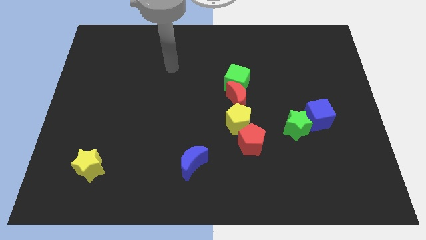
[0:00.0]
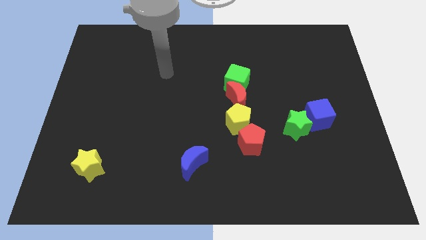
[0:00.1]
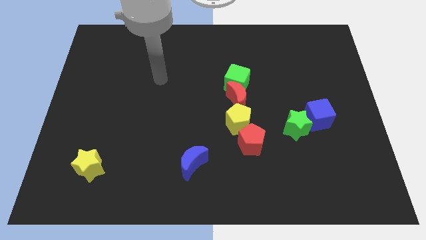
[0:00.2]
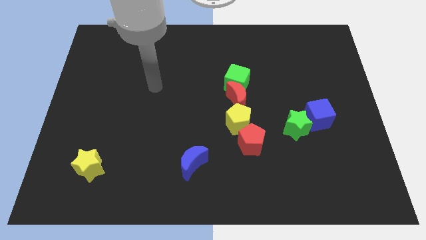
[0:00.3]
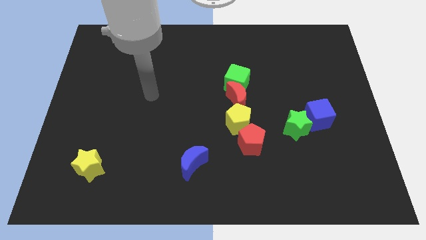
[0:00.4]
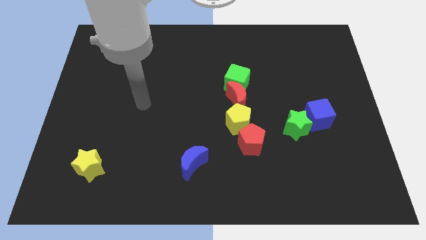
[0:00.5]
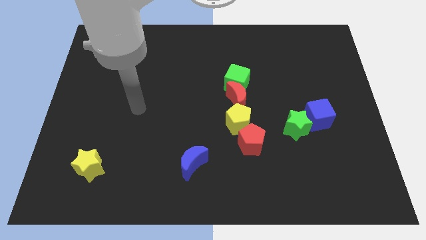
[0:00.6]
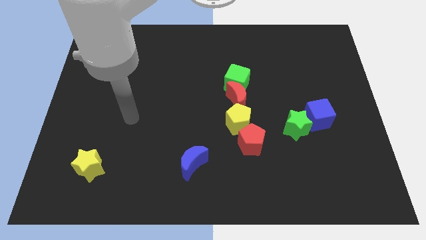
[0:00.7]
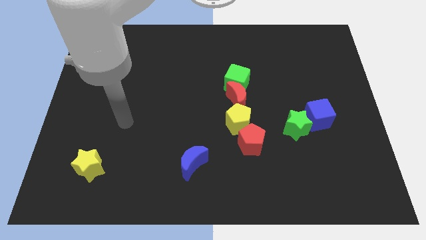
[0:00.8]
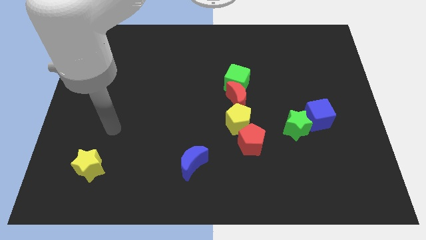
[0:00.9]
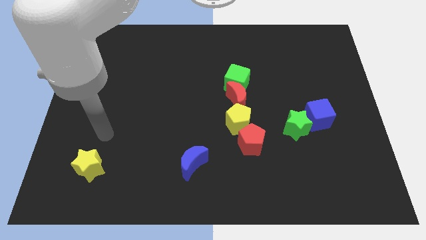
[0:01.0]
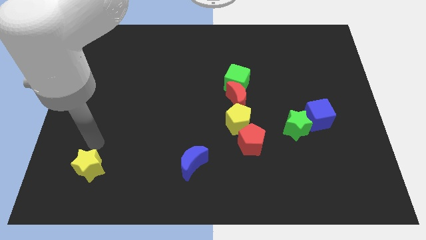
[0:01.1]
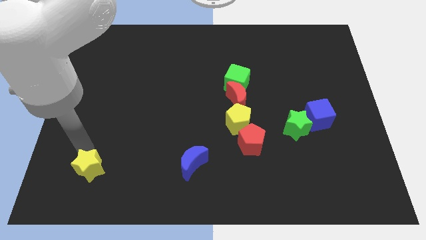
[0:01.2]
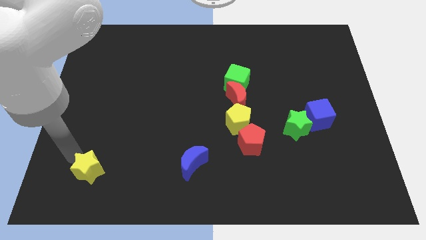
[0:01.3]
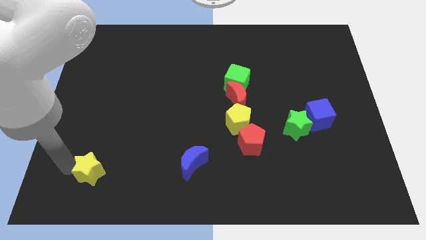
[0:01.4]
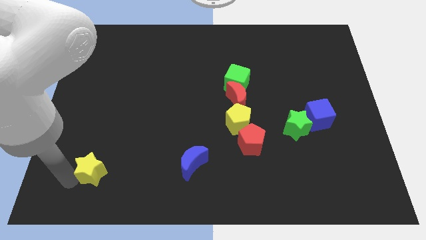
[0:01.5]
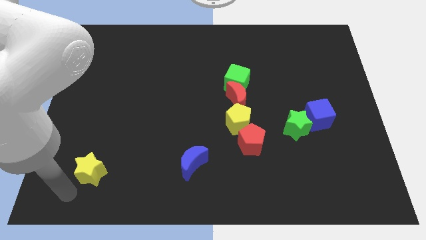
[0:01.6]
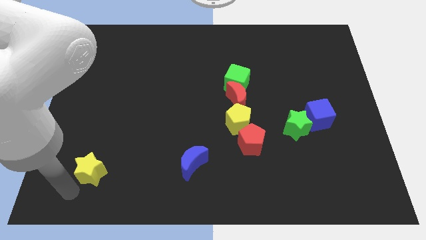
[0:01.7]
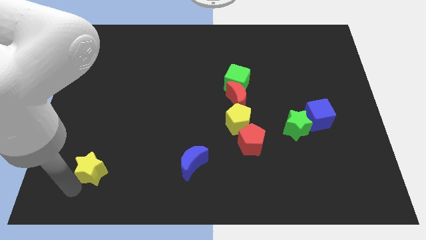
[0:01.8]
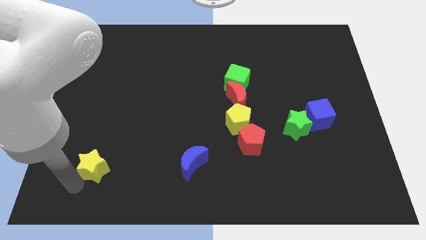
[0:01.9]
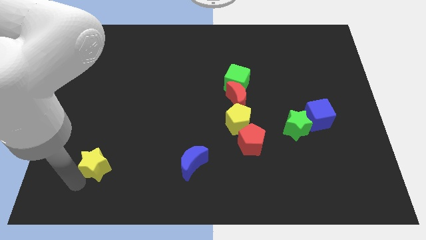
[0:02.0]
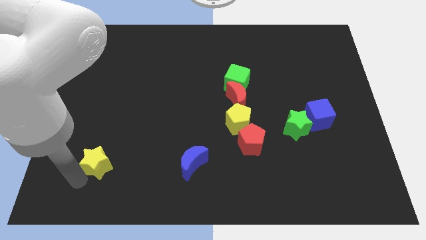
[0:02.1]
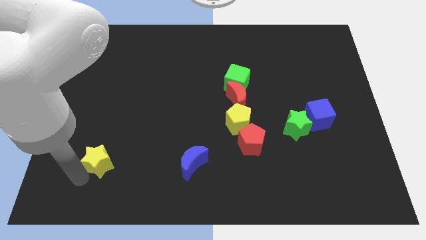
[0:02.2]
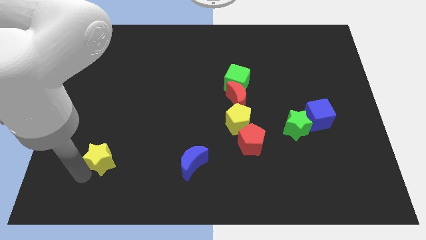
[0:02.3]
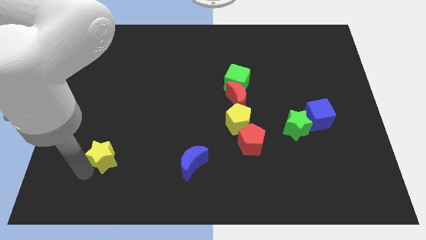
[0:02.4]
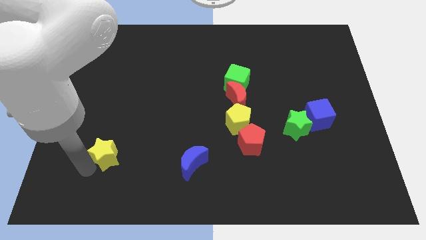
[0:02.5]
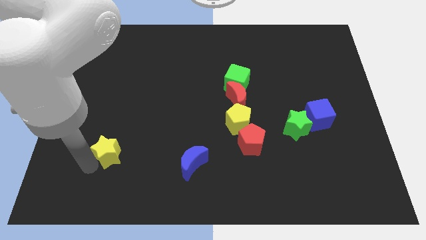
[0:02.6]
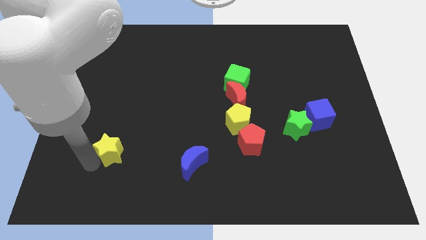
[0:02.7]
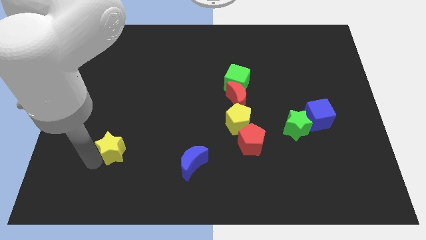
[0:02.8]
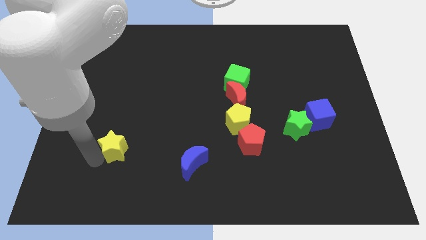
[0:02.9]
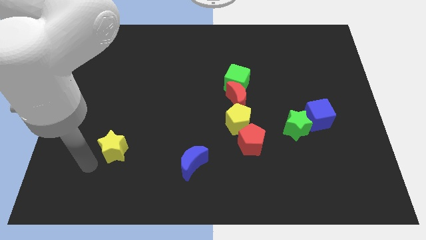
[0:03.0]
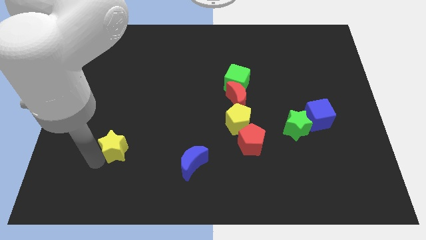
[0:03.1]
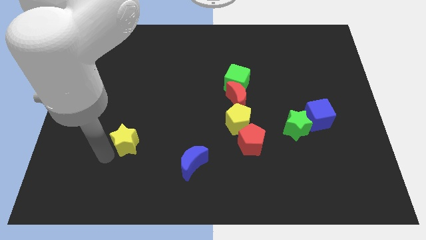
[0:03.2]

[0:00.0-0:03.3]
move the yellow star a bit upwards and then to the right

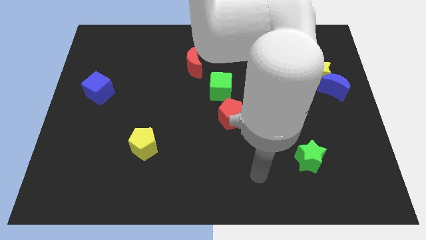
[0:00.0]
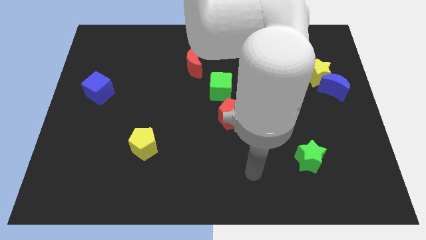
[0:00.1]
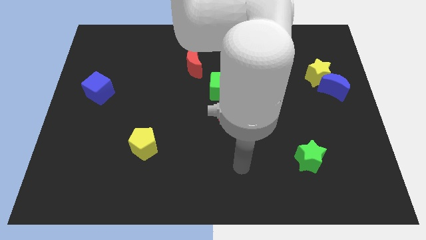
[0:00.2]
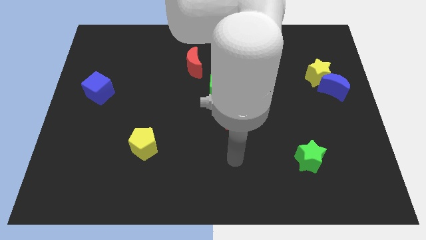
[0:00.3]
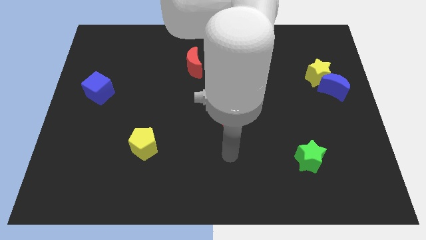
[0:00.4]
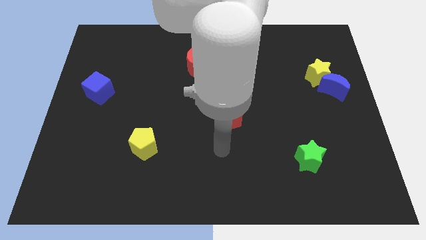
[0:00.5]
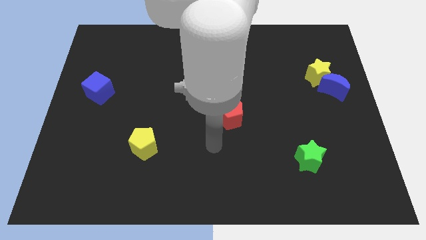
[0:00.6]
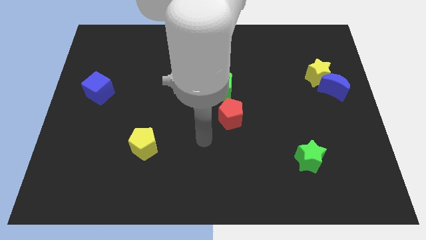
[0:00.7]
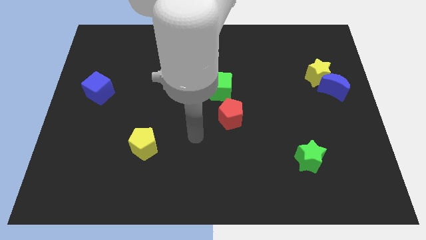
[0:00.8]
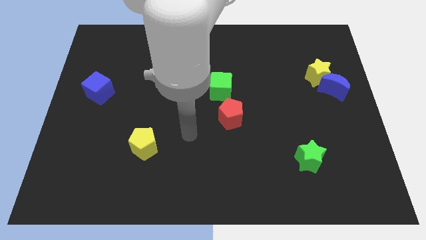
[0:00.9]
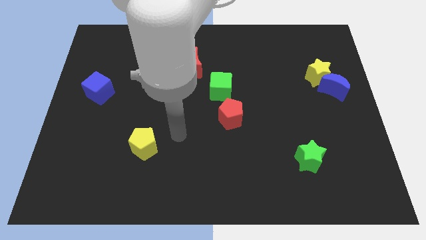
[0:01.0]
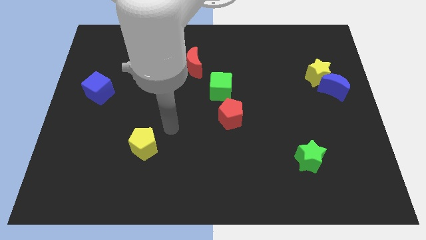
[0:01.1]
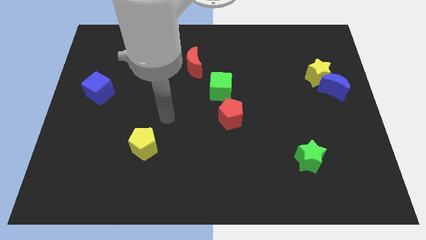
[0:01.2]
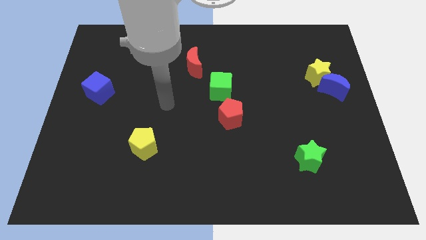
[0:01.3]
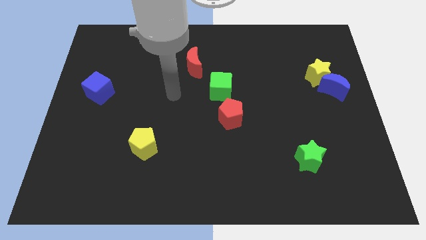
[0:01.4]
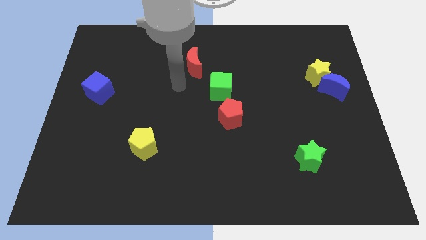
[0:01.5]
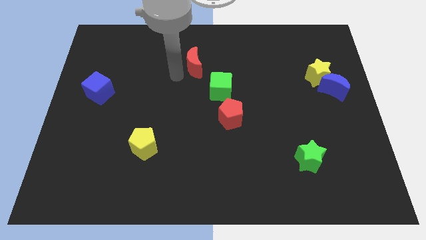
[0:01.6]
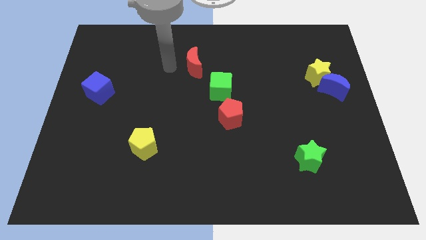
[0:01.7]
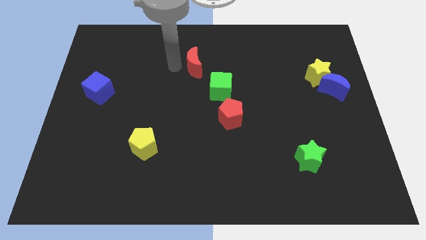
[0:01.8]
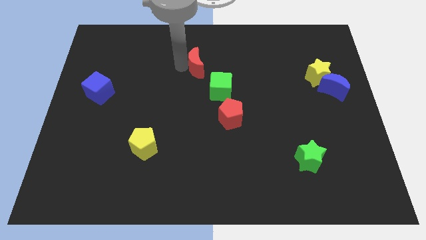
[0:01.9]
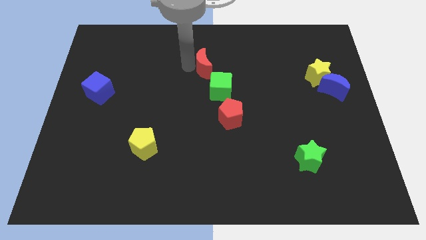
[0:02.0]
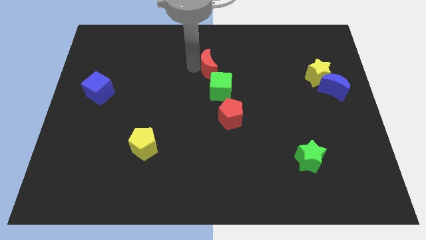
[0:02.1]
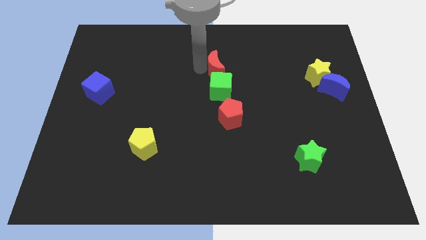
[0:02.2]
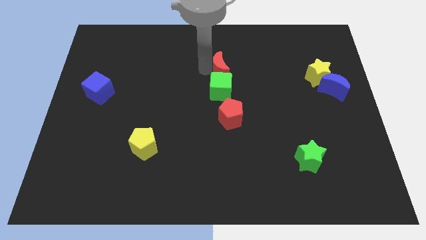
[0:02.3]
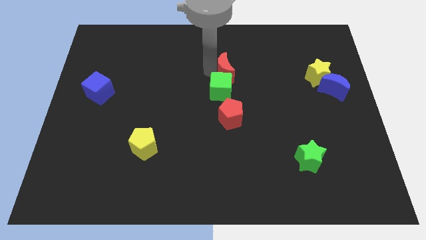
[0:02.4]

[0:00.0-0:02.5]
slightly push the red moon to the right

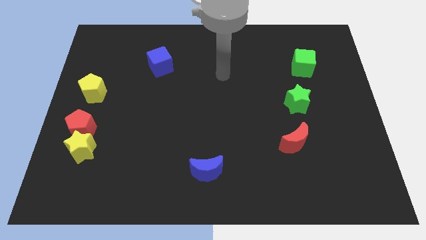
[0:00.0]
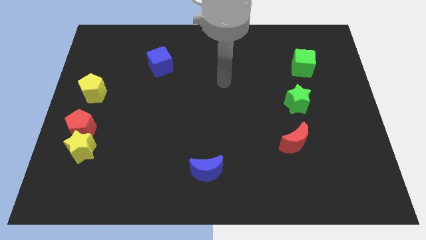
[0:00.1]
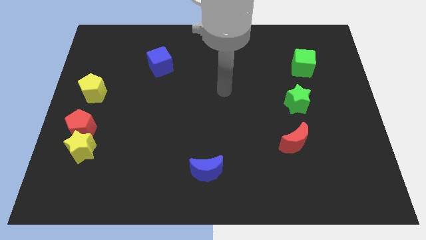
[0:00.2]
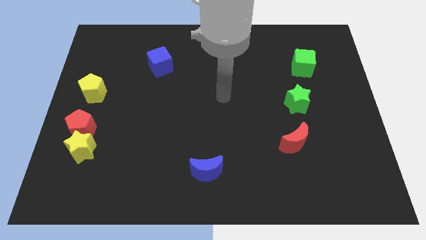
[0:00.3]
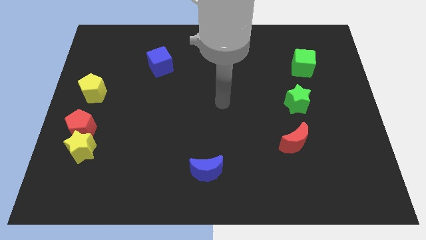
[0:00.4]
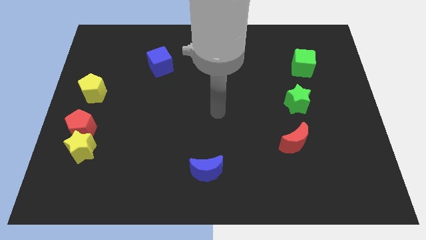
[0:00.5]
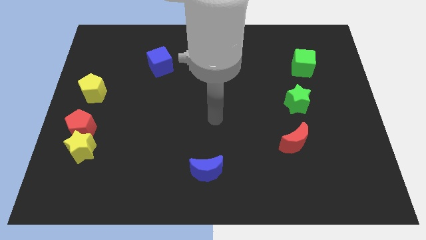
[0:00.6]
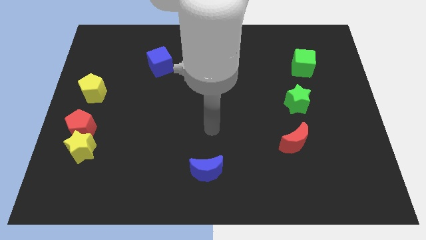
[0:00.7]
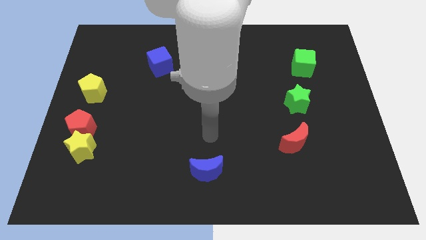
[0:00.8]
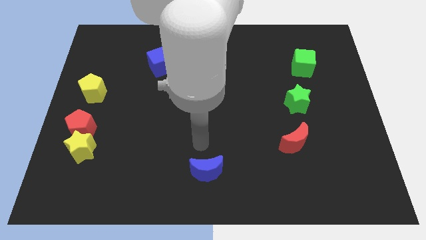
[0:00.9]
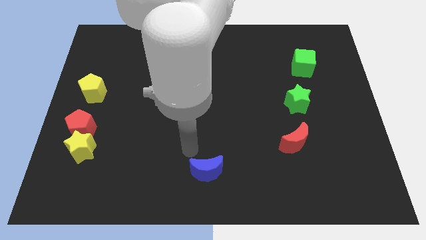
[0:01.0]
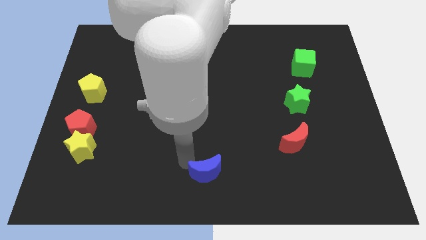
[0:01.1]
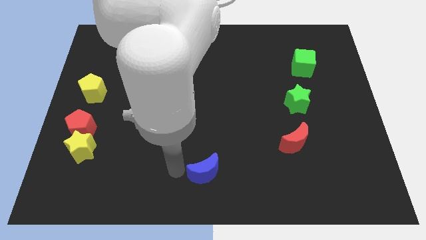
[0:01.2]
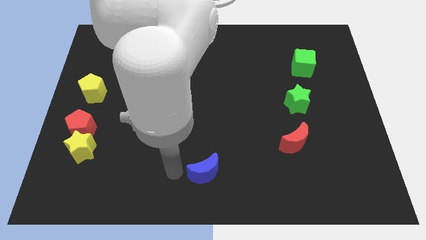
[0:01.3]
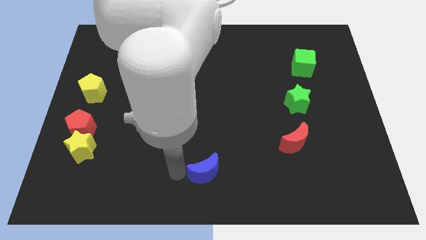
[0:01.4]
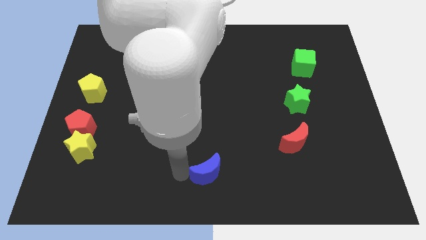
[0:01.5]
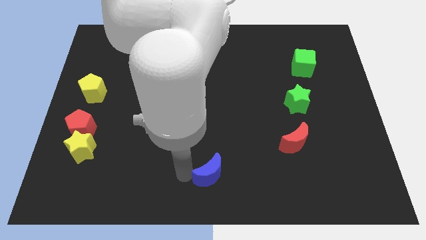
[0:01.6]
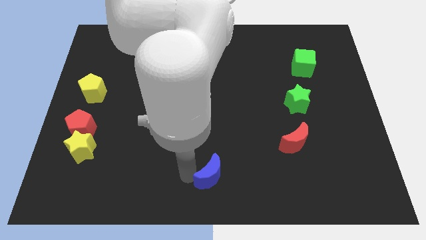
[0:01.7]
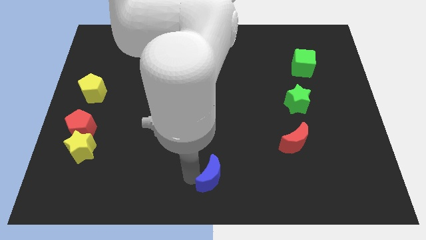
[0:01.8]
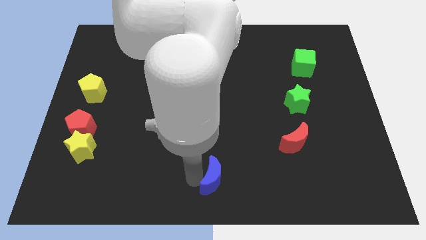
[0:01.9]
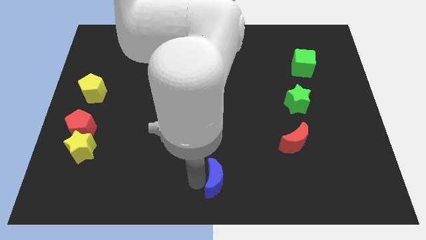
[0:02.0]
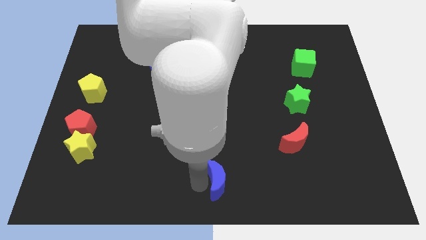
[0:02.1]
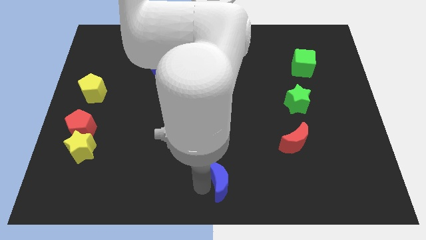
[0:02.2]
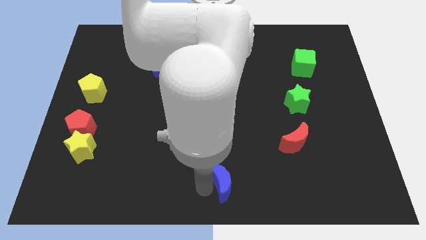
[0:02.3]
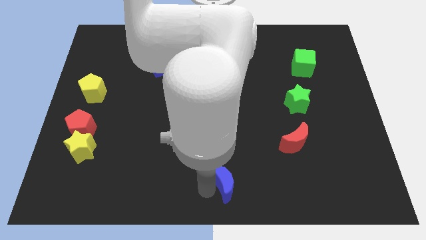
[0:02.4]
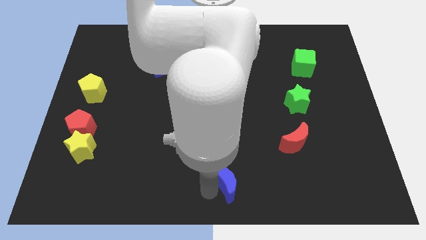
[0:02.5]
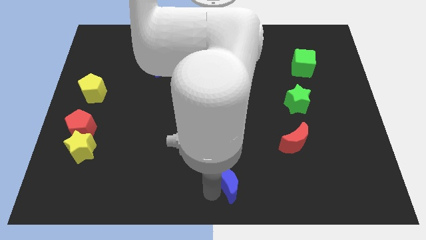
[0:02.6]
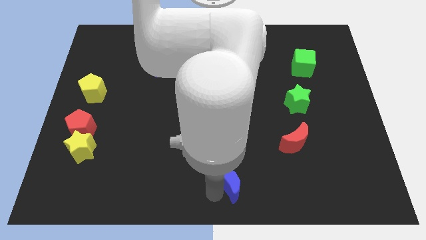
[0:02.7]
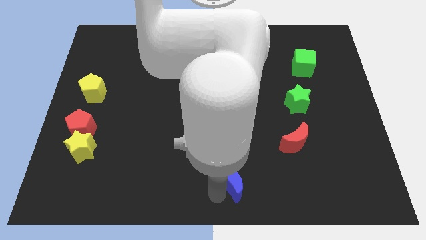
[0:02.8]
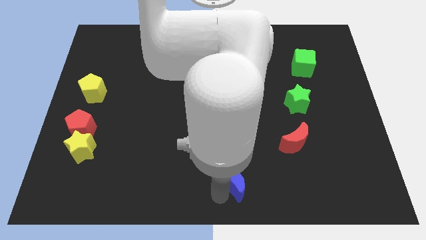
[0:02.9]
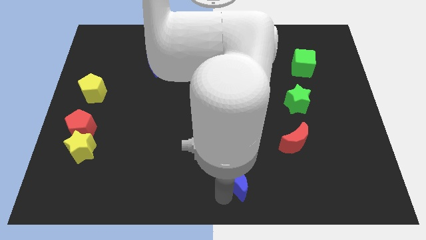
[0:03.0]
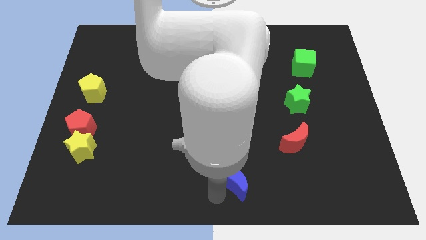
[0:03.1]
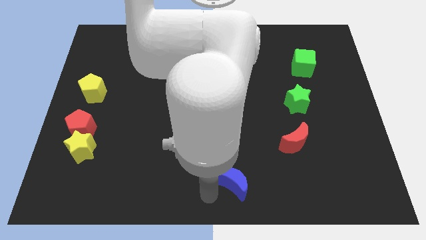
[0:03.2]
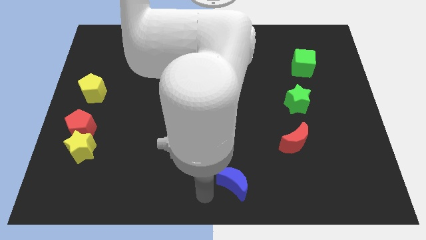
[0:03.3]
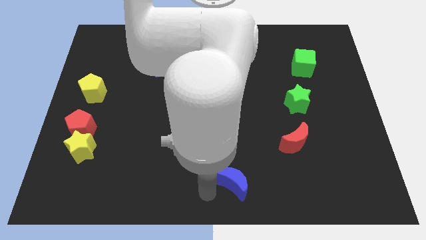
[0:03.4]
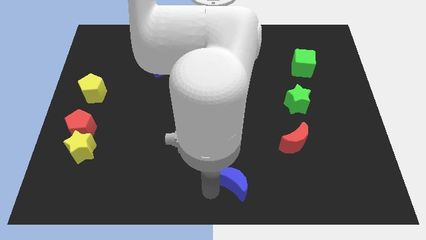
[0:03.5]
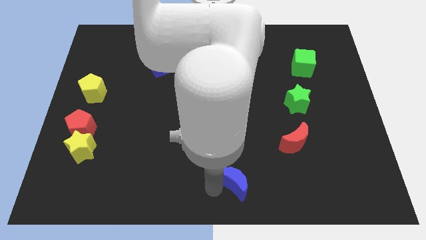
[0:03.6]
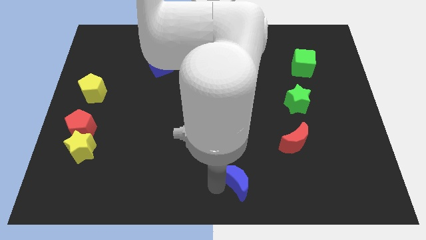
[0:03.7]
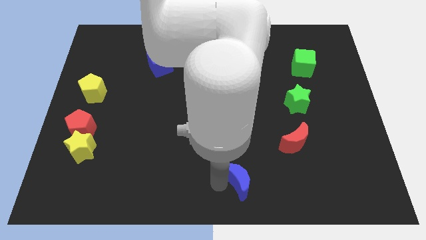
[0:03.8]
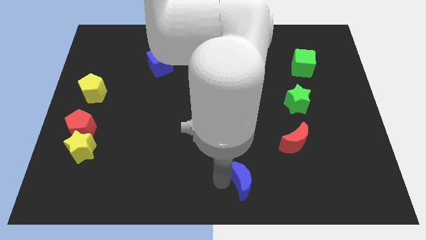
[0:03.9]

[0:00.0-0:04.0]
push the blue moon to the right a little
